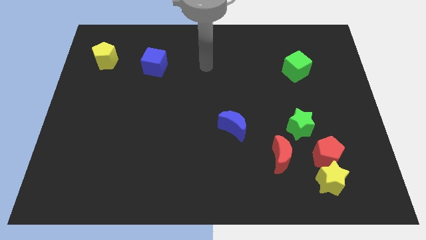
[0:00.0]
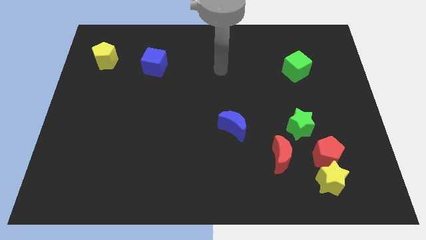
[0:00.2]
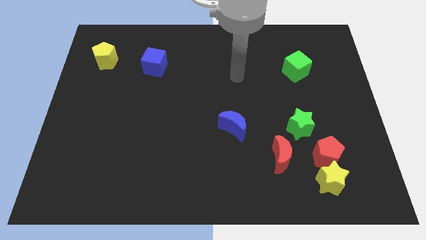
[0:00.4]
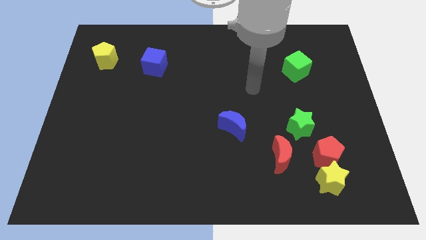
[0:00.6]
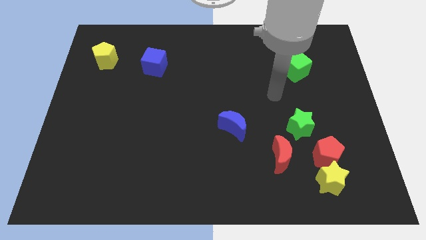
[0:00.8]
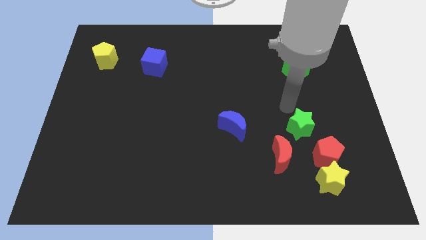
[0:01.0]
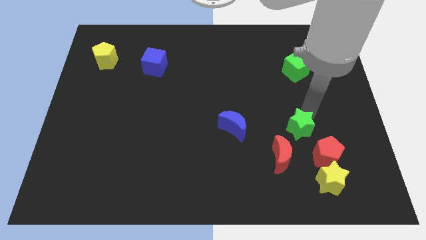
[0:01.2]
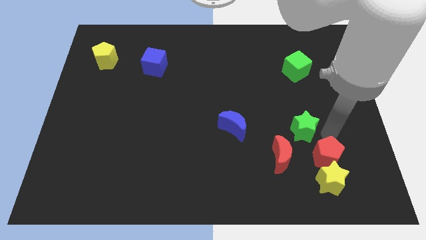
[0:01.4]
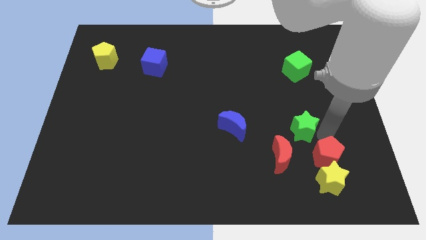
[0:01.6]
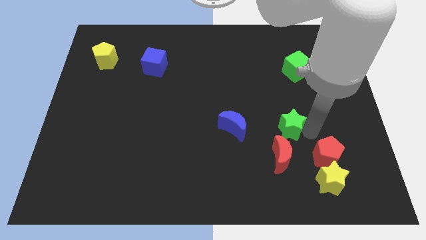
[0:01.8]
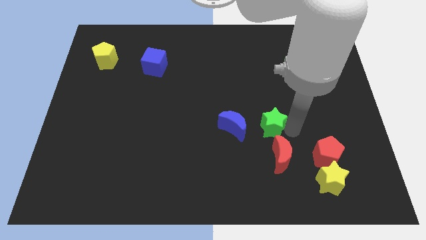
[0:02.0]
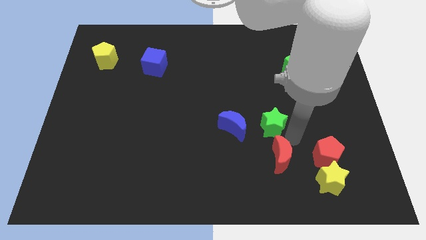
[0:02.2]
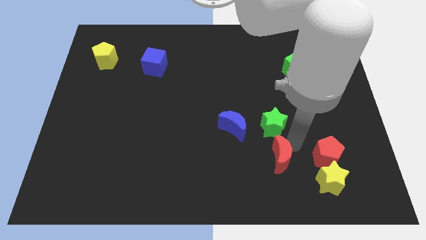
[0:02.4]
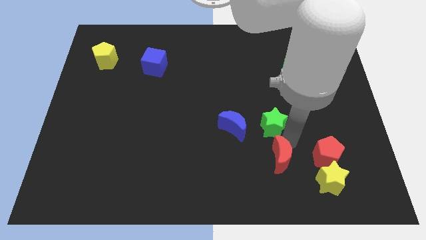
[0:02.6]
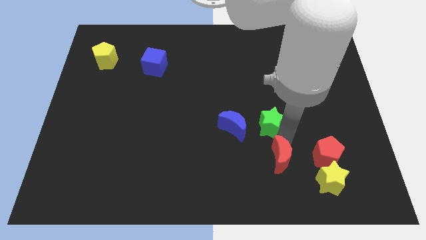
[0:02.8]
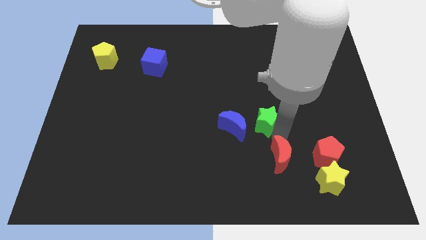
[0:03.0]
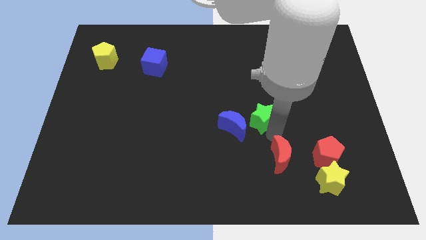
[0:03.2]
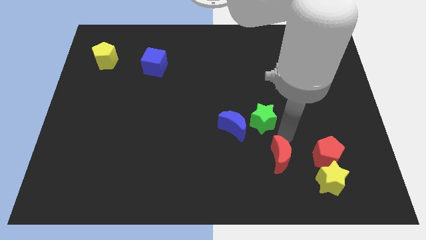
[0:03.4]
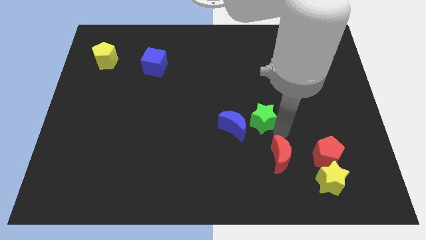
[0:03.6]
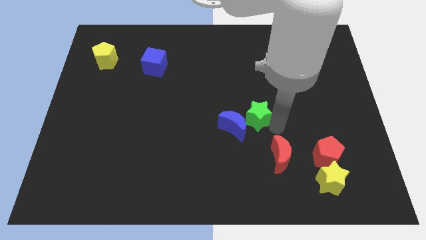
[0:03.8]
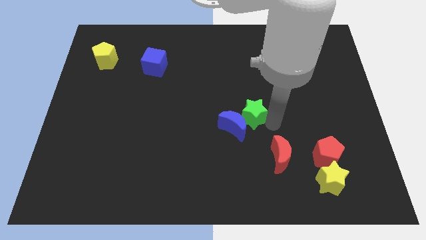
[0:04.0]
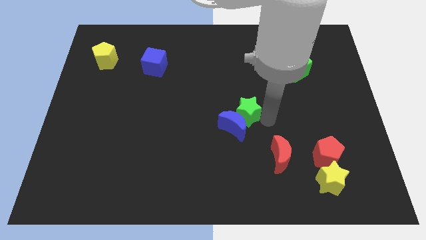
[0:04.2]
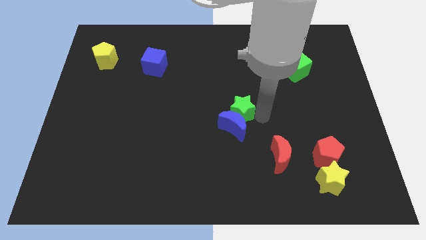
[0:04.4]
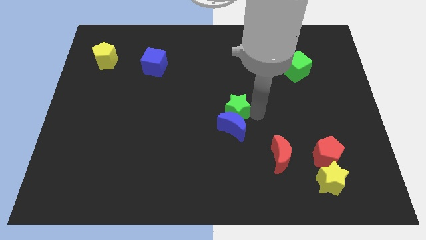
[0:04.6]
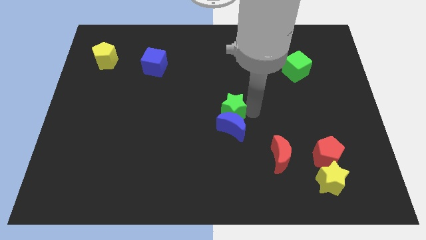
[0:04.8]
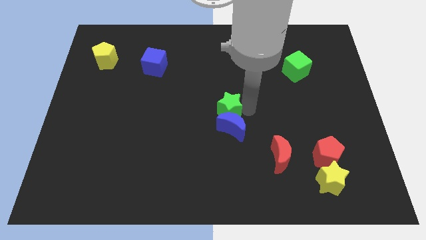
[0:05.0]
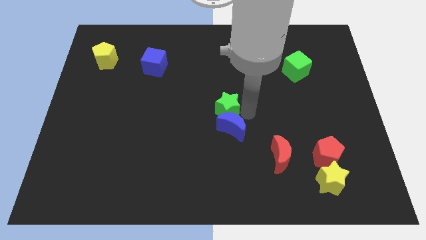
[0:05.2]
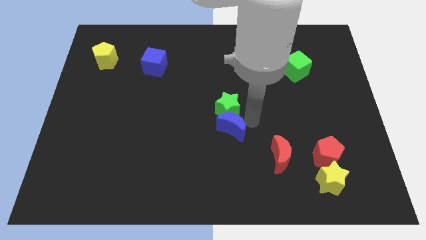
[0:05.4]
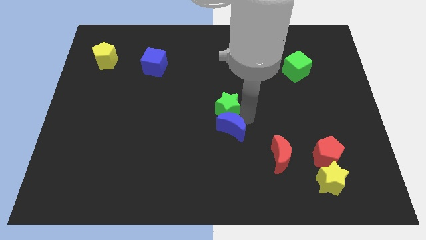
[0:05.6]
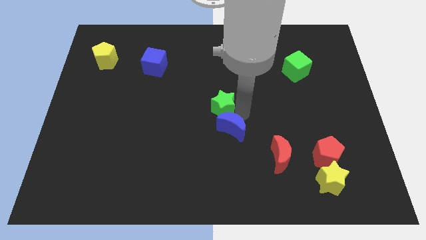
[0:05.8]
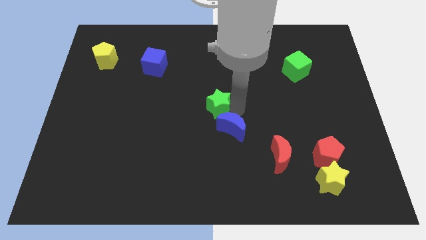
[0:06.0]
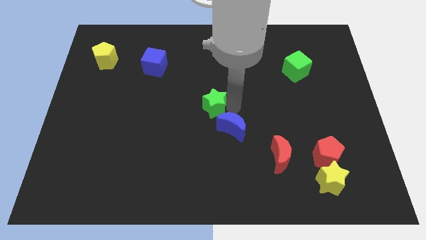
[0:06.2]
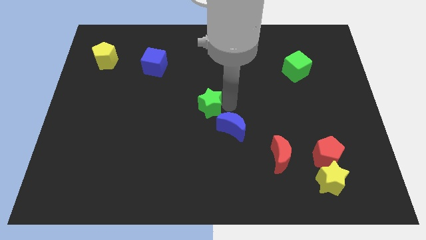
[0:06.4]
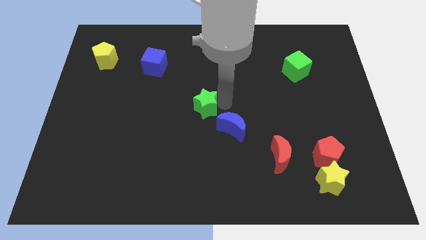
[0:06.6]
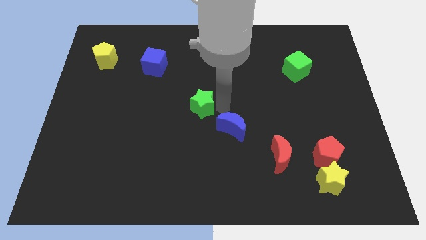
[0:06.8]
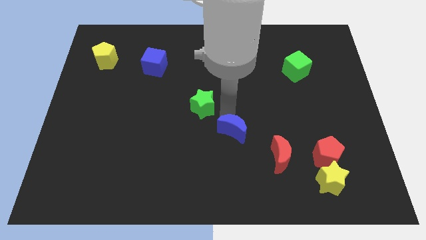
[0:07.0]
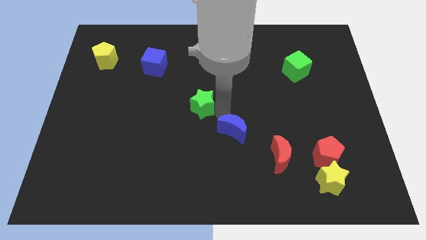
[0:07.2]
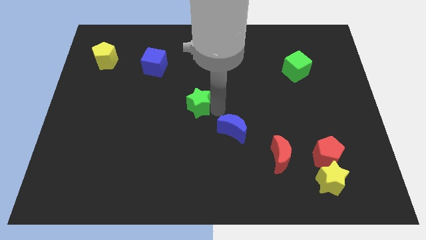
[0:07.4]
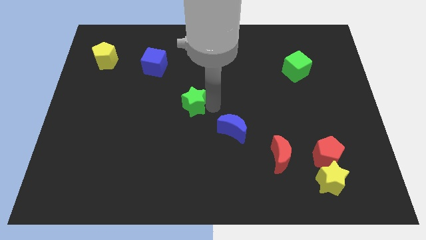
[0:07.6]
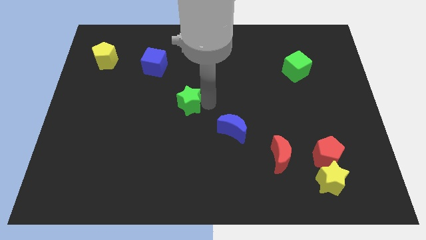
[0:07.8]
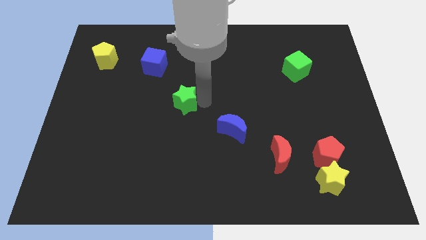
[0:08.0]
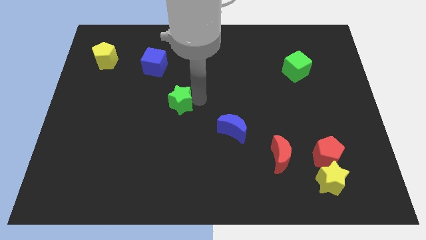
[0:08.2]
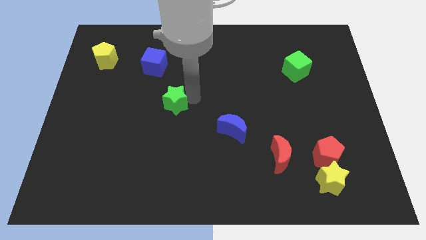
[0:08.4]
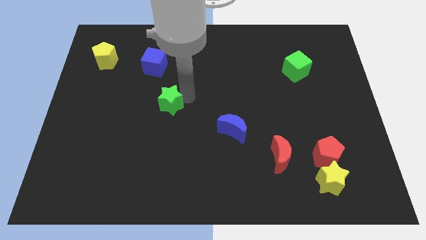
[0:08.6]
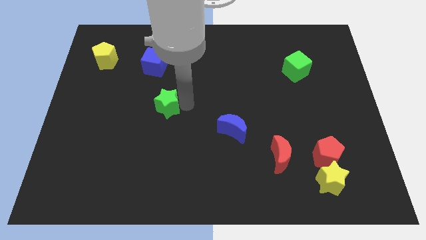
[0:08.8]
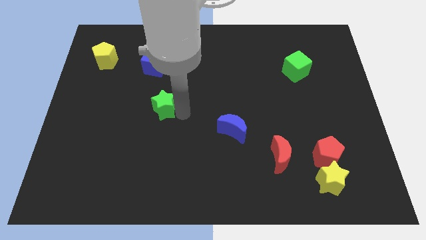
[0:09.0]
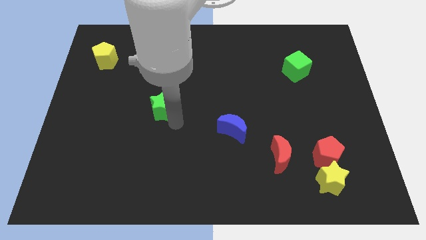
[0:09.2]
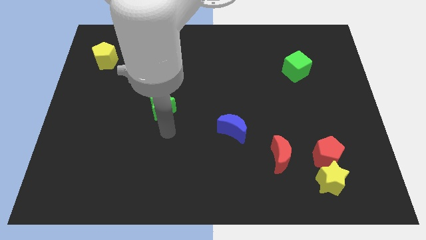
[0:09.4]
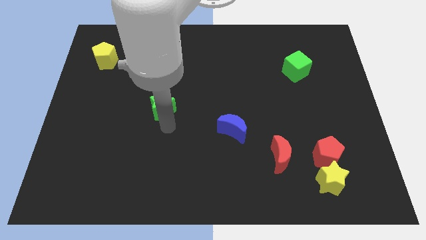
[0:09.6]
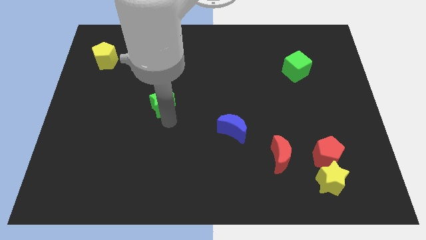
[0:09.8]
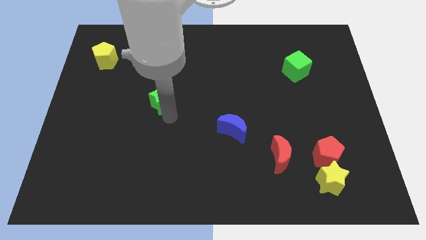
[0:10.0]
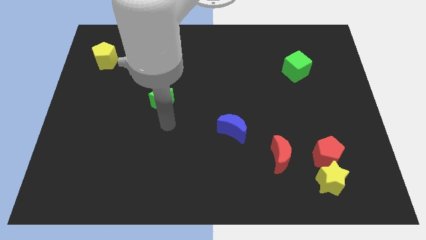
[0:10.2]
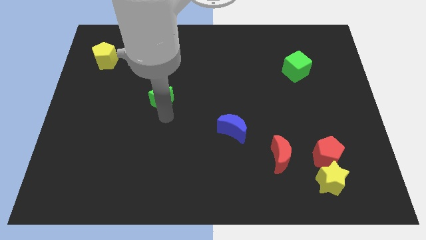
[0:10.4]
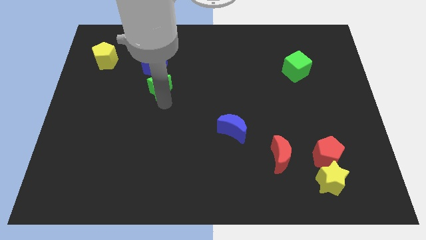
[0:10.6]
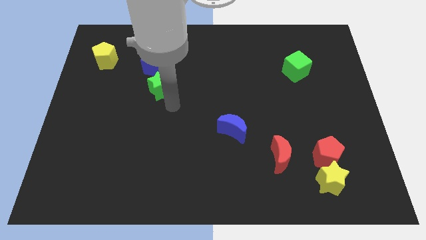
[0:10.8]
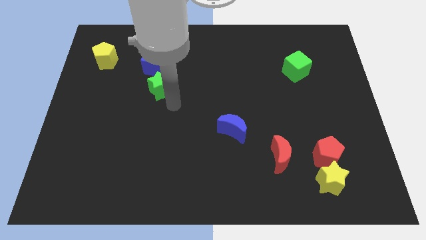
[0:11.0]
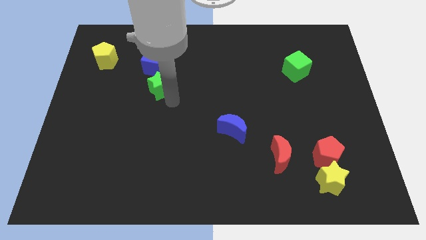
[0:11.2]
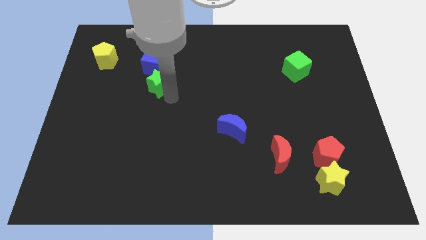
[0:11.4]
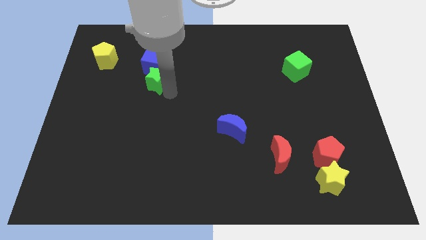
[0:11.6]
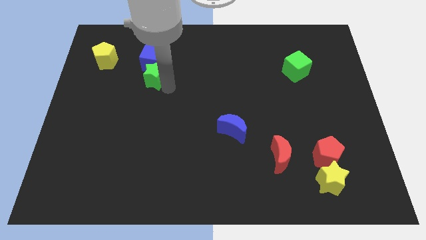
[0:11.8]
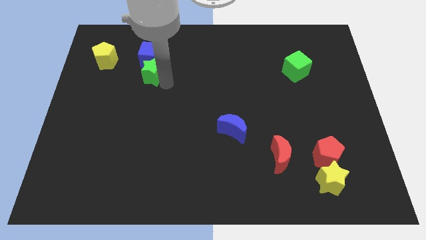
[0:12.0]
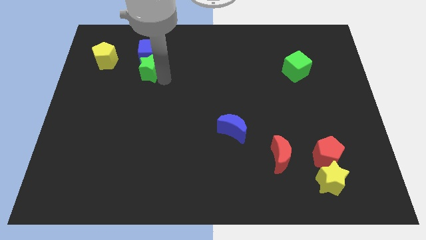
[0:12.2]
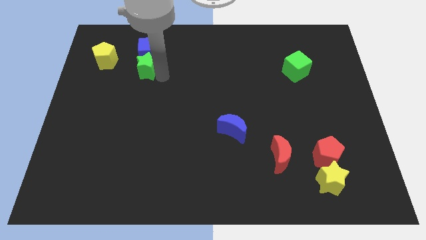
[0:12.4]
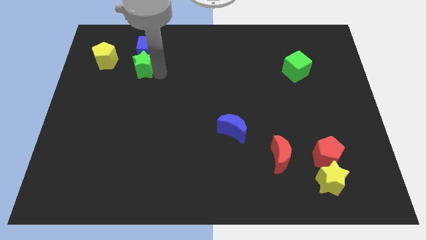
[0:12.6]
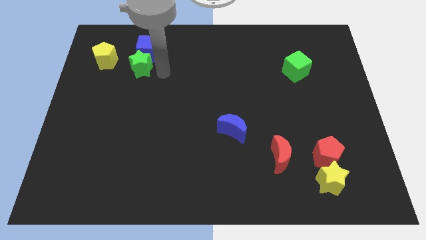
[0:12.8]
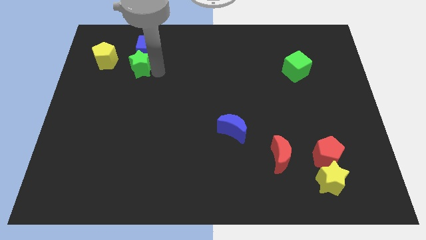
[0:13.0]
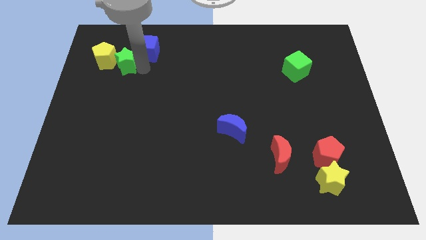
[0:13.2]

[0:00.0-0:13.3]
put the green star close to the yellow pentagon

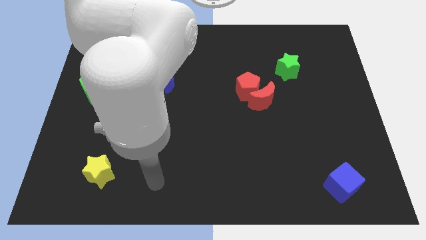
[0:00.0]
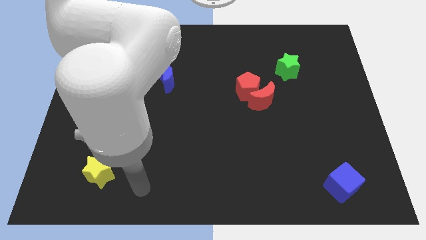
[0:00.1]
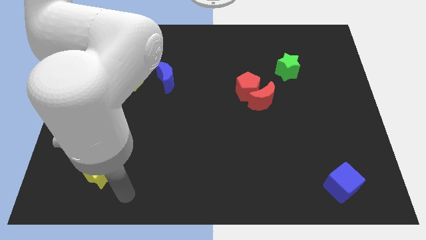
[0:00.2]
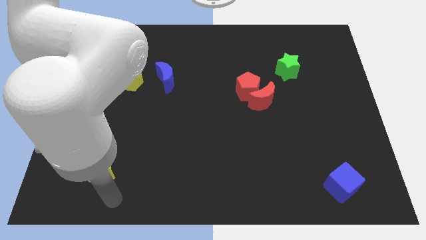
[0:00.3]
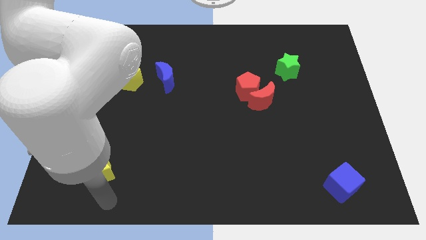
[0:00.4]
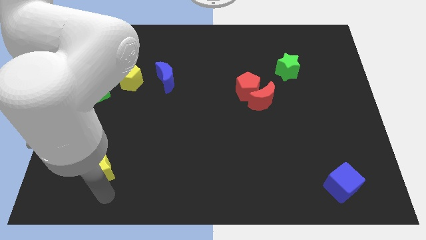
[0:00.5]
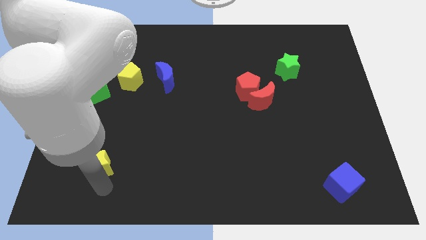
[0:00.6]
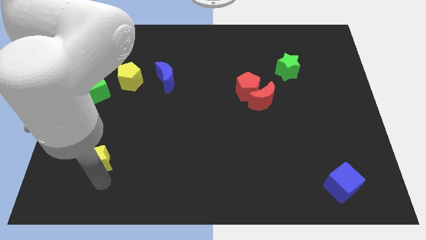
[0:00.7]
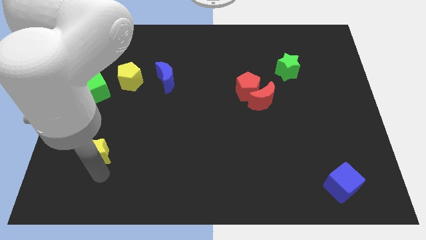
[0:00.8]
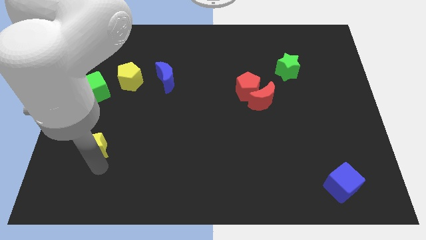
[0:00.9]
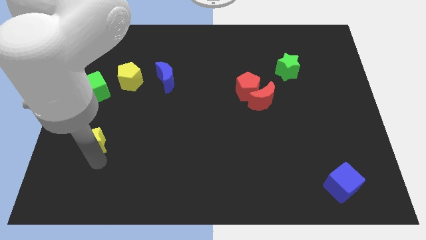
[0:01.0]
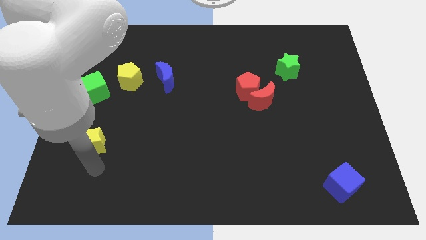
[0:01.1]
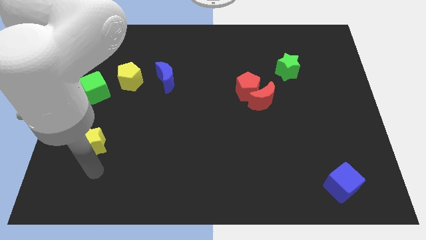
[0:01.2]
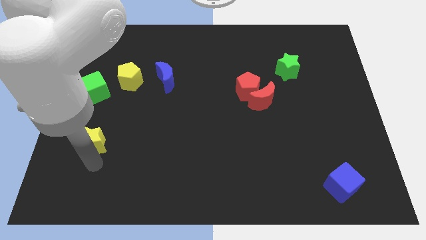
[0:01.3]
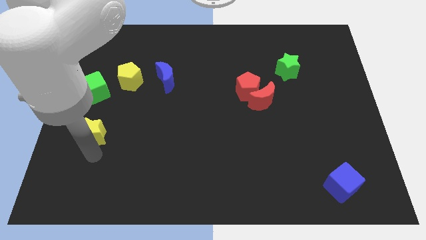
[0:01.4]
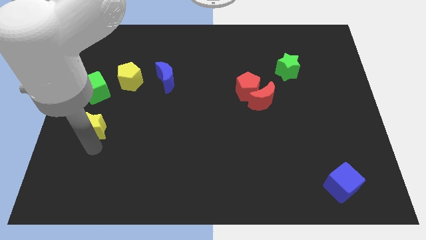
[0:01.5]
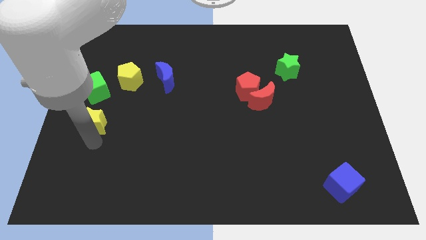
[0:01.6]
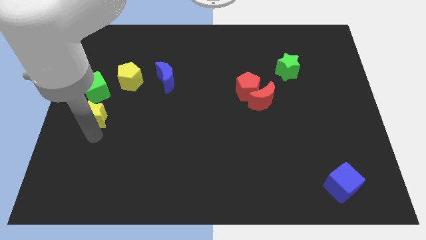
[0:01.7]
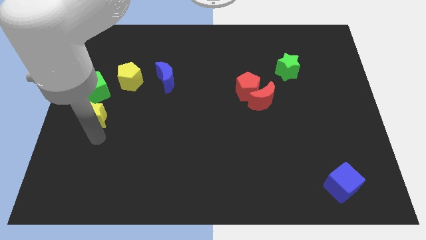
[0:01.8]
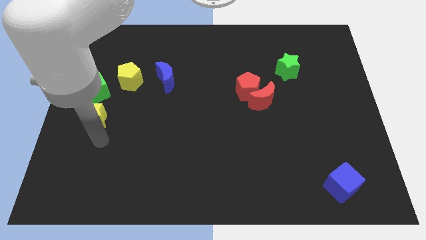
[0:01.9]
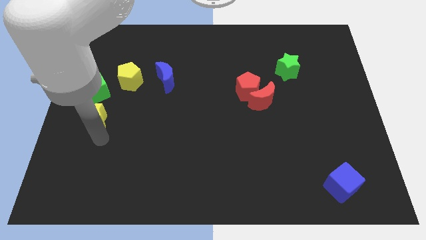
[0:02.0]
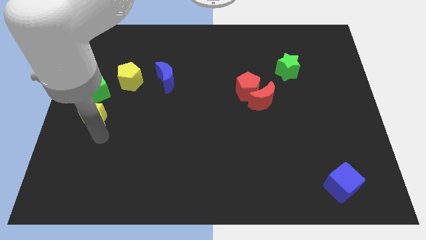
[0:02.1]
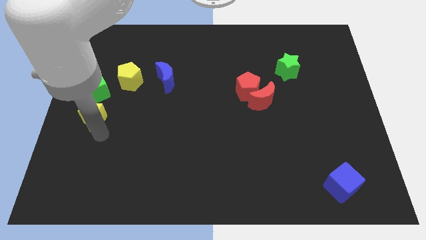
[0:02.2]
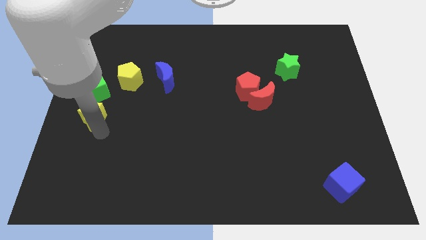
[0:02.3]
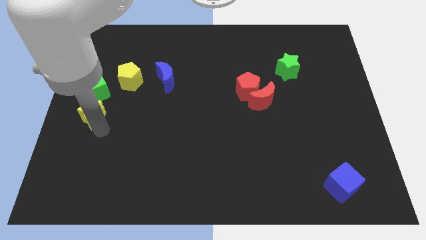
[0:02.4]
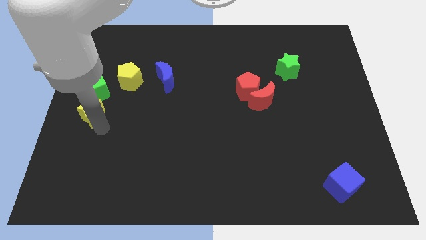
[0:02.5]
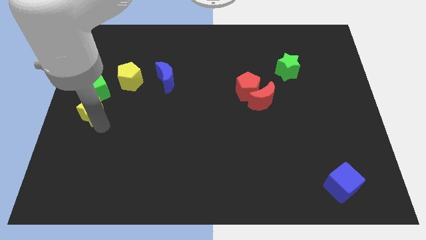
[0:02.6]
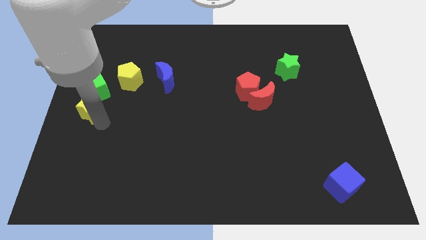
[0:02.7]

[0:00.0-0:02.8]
slide the yellow star next to the green cube
